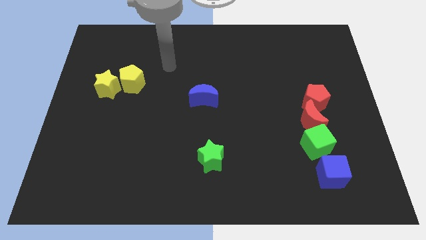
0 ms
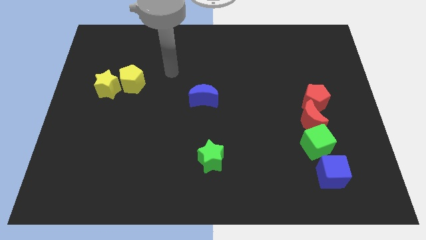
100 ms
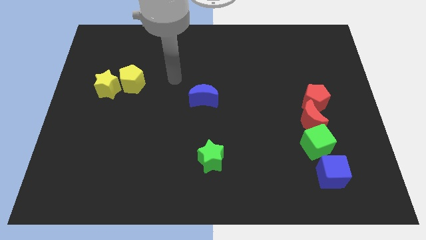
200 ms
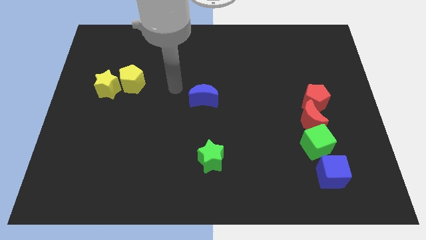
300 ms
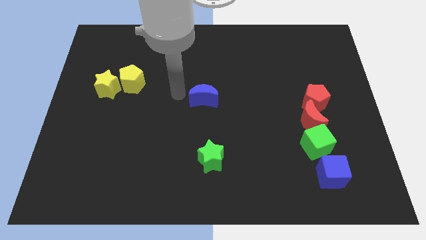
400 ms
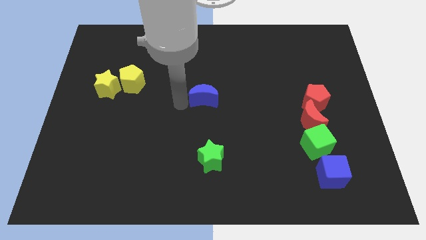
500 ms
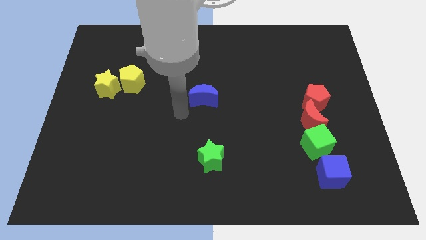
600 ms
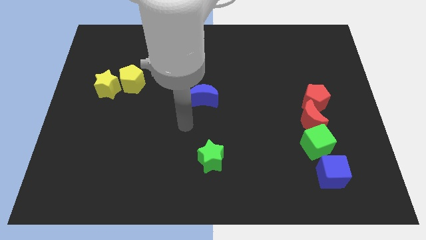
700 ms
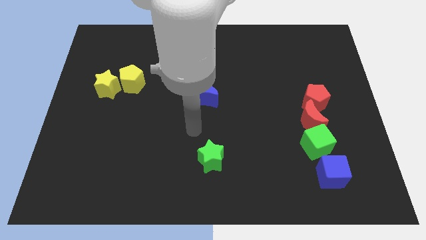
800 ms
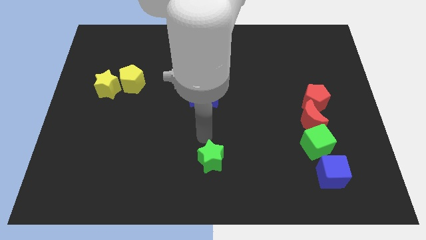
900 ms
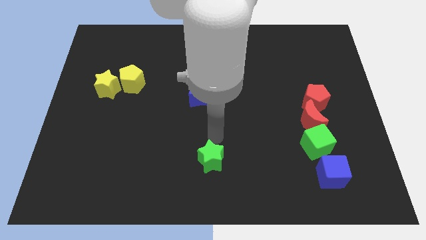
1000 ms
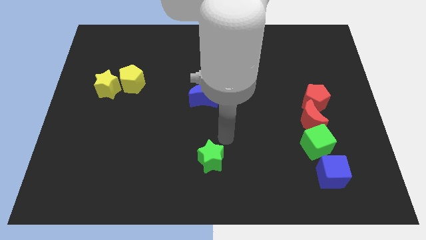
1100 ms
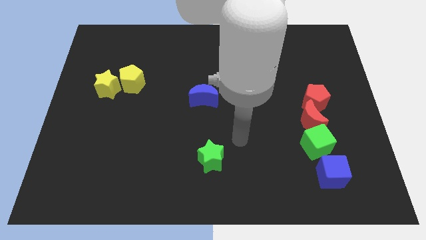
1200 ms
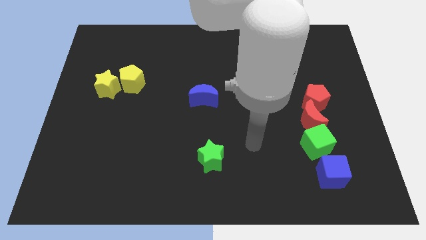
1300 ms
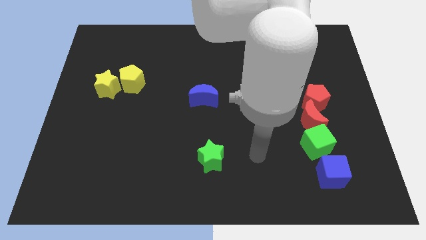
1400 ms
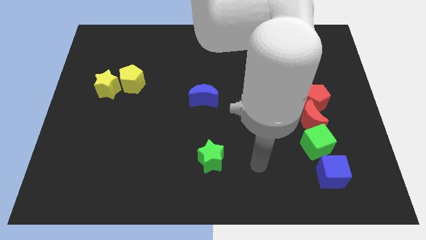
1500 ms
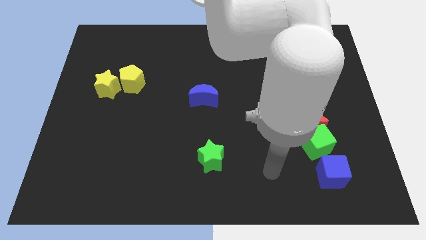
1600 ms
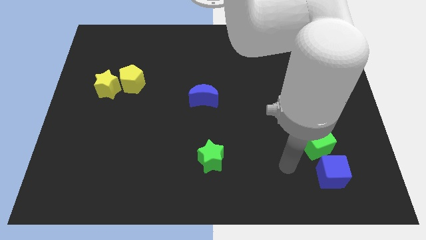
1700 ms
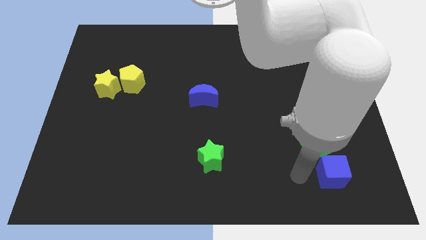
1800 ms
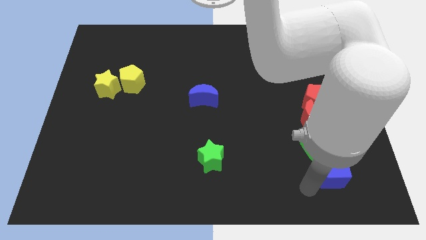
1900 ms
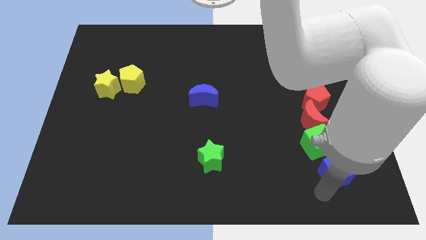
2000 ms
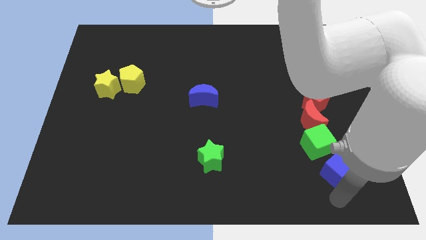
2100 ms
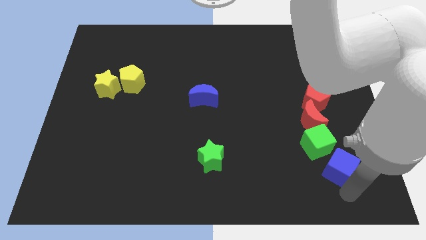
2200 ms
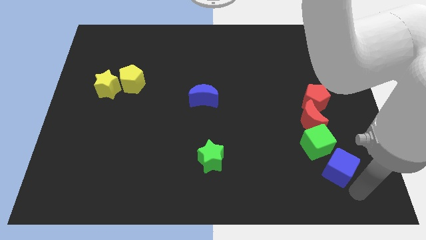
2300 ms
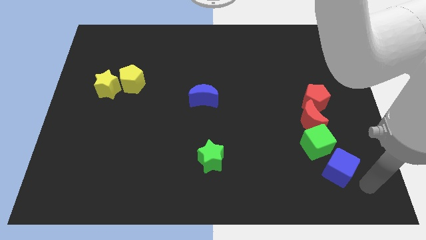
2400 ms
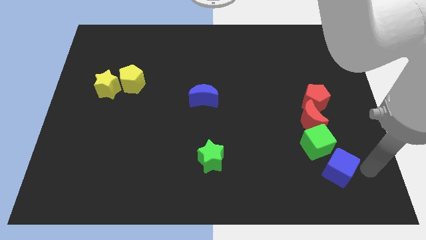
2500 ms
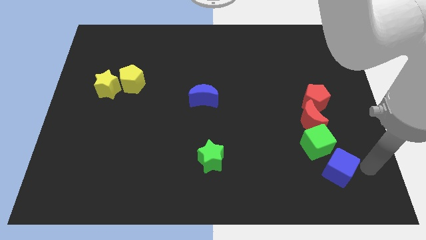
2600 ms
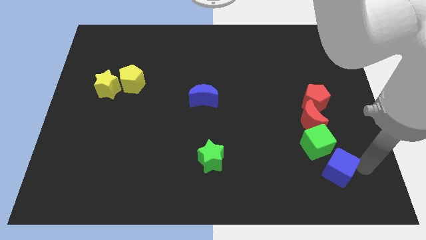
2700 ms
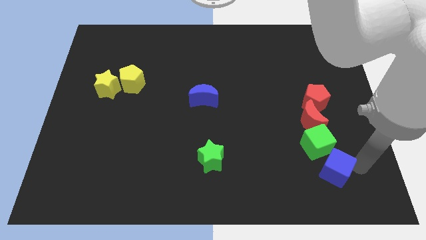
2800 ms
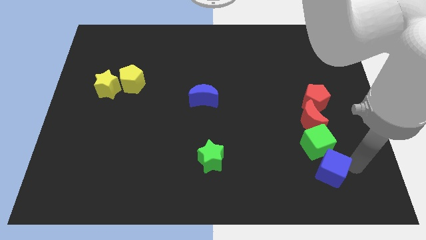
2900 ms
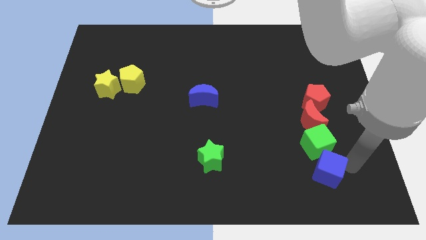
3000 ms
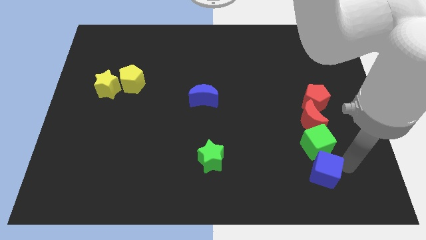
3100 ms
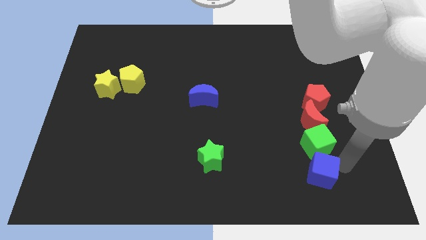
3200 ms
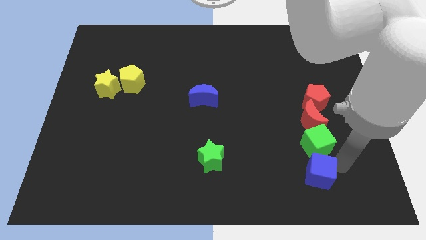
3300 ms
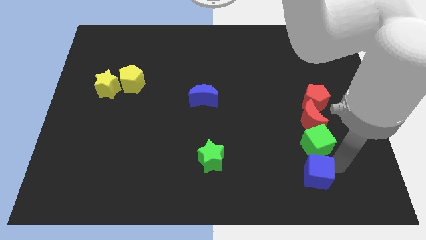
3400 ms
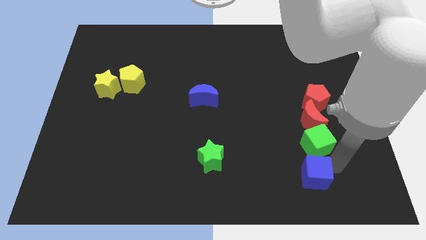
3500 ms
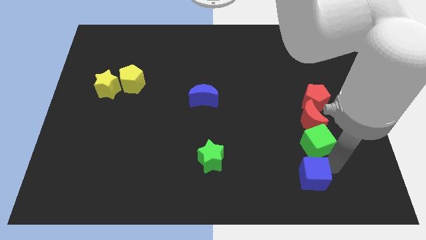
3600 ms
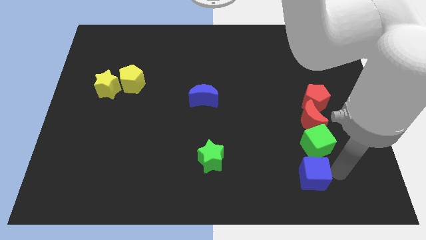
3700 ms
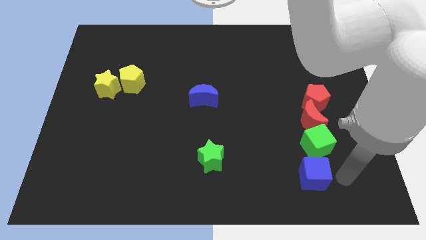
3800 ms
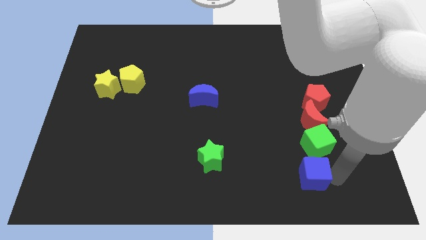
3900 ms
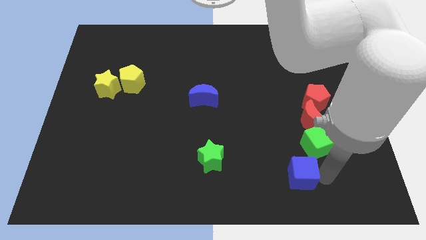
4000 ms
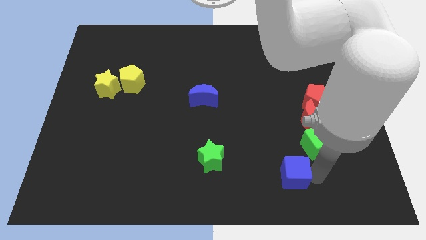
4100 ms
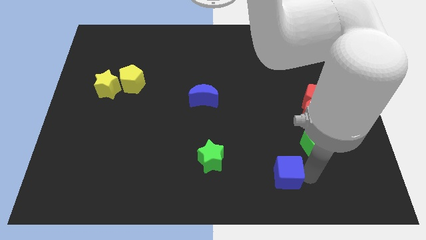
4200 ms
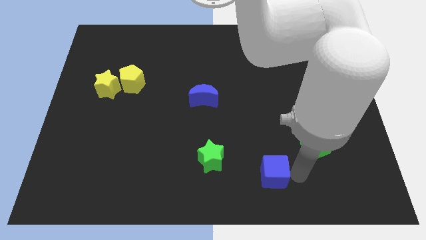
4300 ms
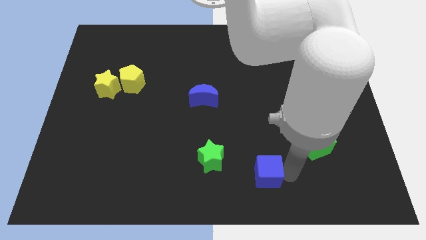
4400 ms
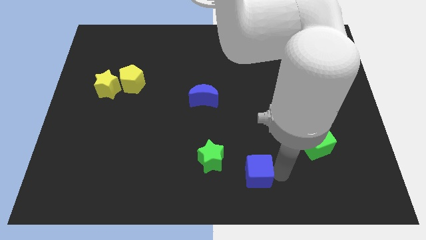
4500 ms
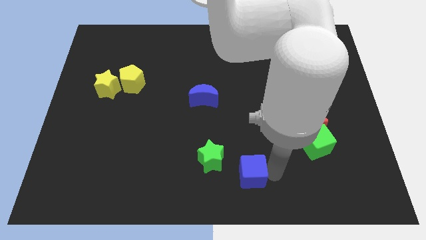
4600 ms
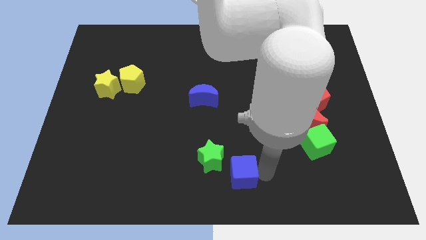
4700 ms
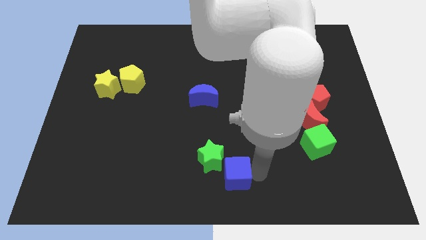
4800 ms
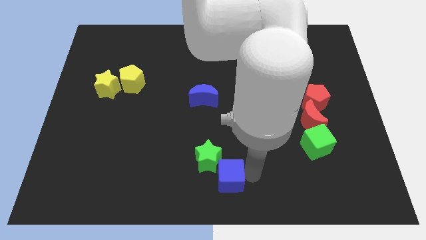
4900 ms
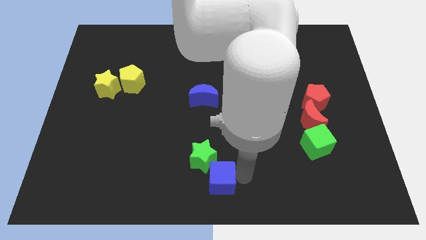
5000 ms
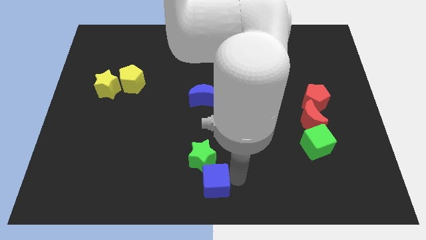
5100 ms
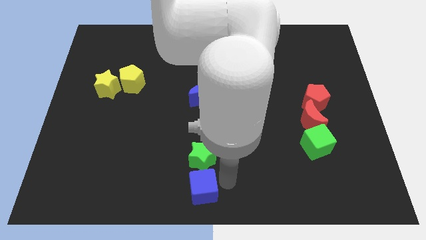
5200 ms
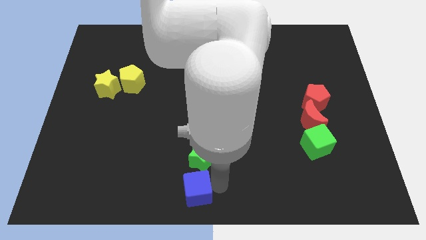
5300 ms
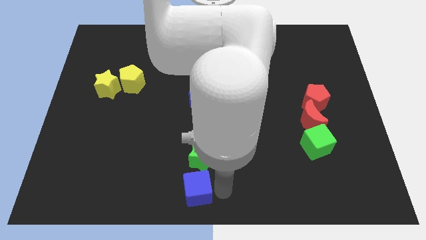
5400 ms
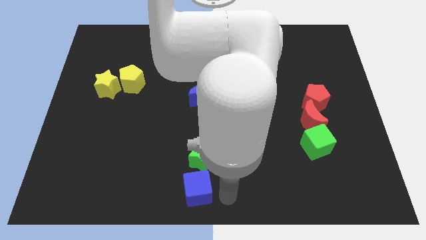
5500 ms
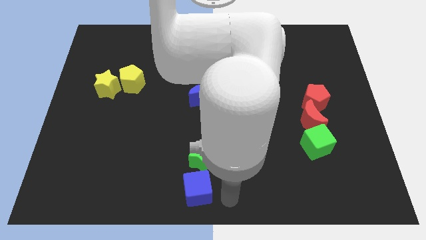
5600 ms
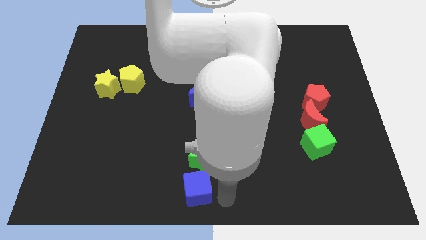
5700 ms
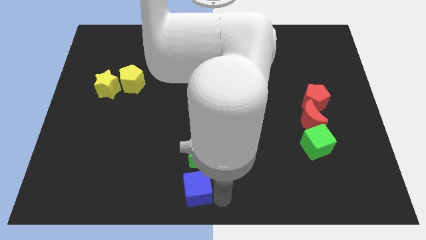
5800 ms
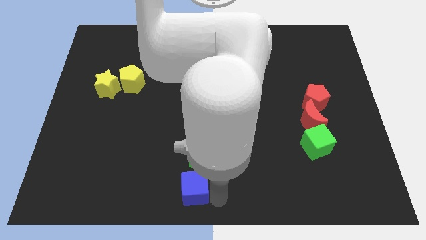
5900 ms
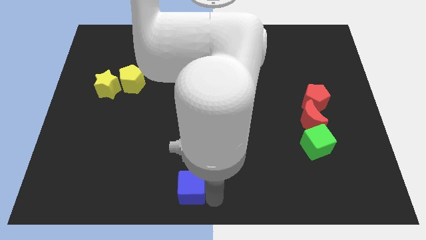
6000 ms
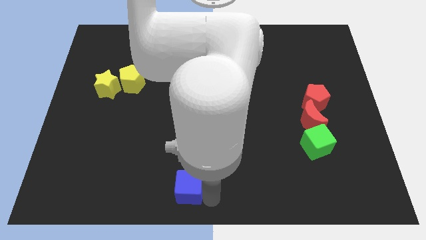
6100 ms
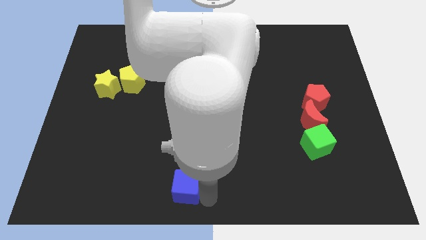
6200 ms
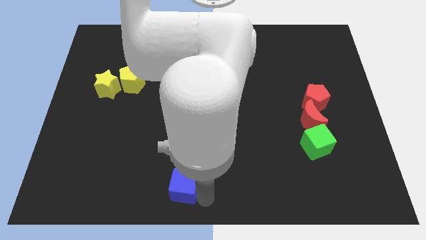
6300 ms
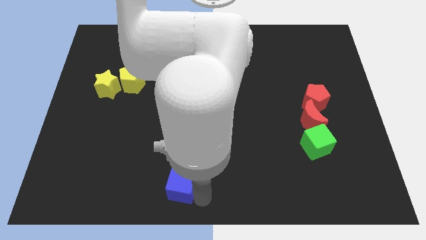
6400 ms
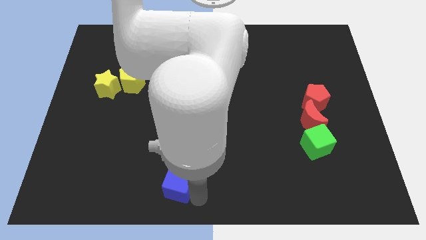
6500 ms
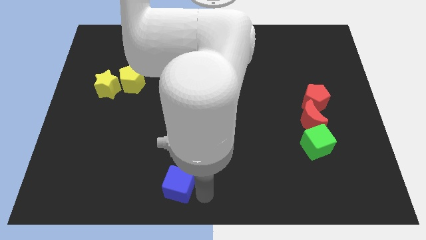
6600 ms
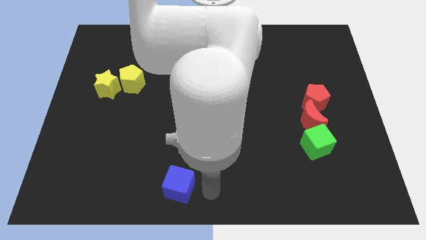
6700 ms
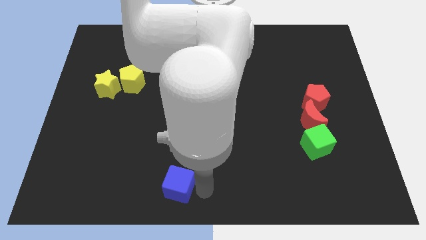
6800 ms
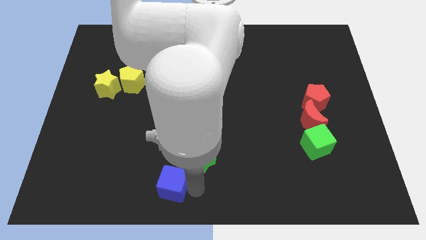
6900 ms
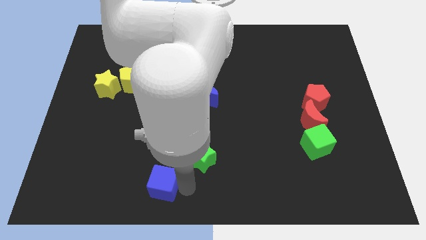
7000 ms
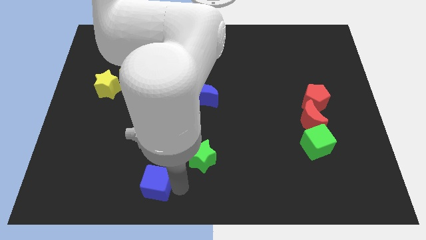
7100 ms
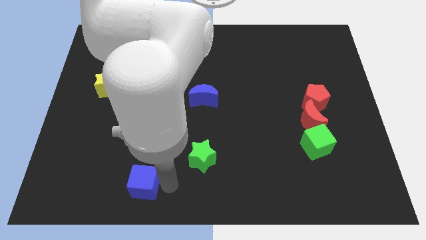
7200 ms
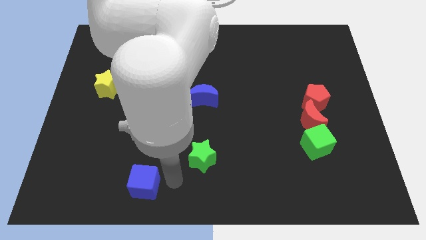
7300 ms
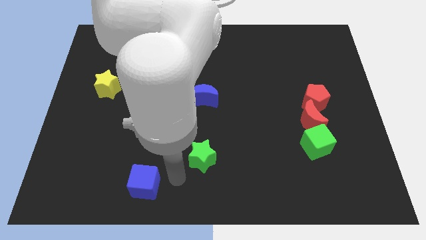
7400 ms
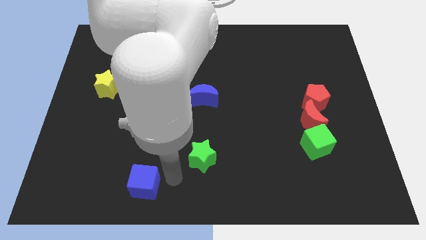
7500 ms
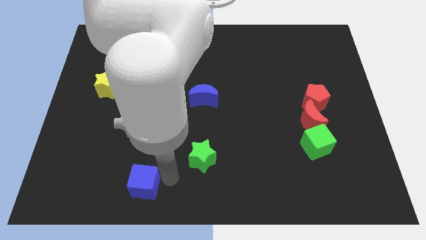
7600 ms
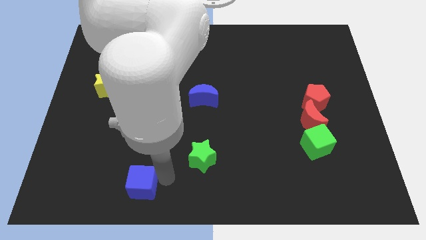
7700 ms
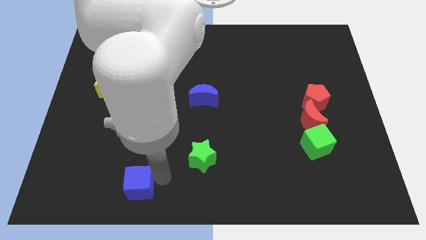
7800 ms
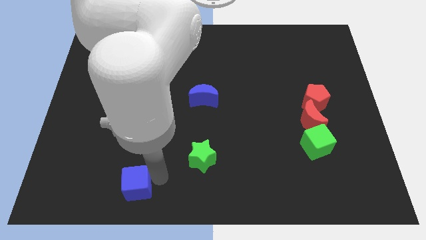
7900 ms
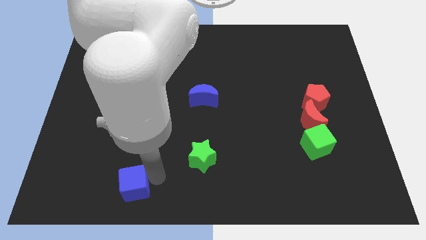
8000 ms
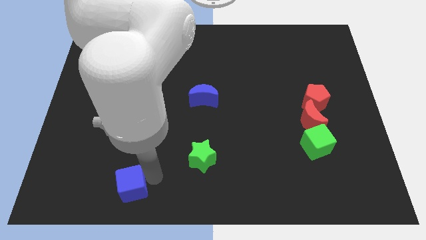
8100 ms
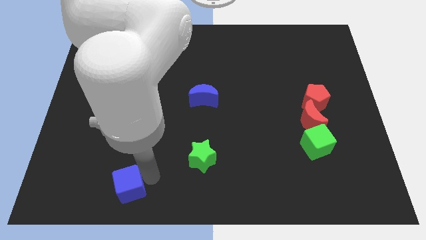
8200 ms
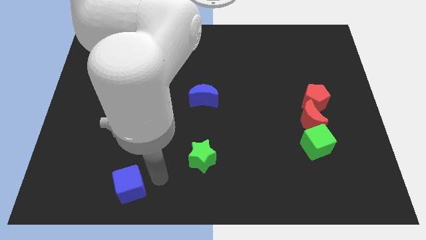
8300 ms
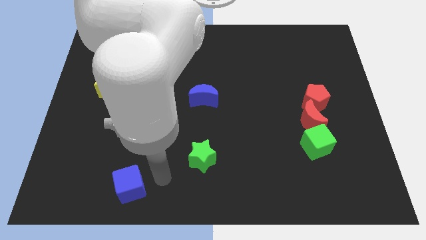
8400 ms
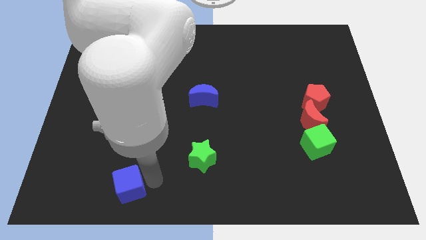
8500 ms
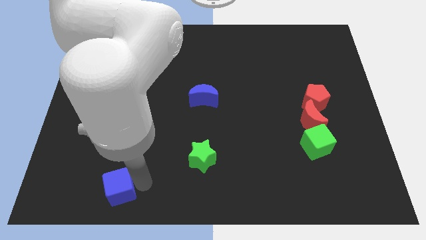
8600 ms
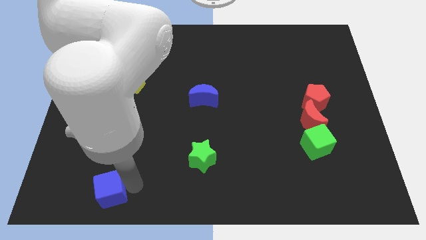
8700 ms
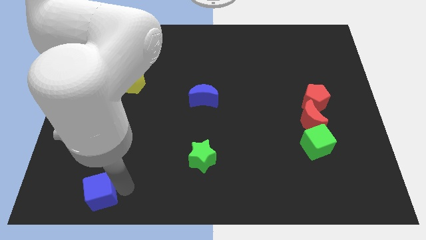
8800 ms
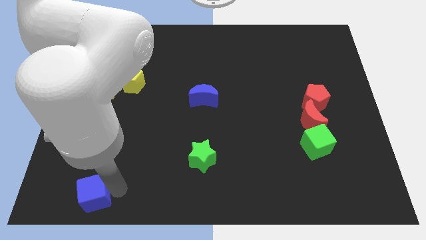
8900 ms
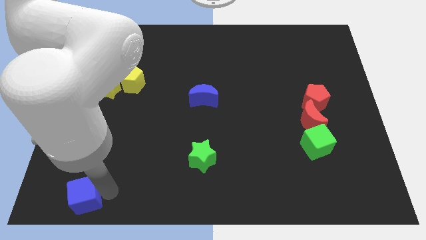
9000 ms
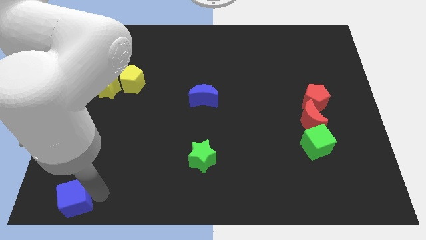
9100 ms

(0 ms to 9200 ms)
move the blue cube to the bottom left of the board
